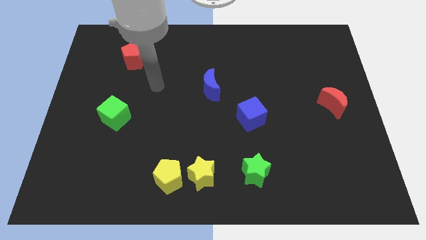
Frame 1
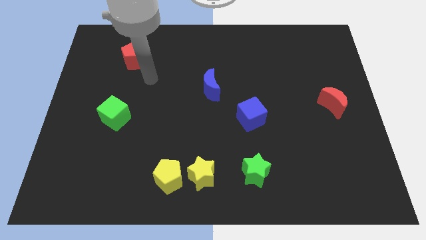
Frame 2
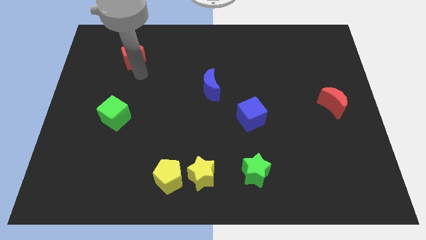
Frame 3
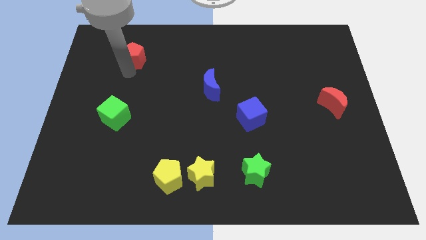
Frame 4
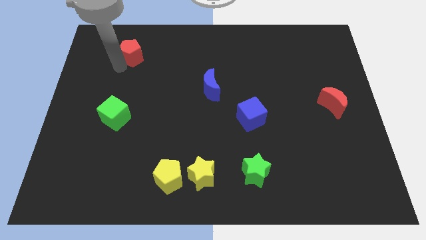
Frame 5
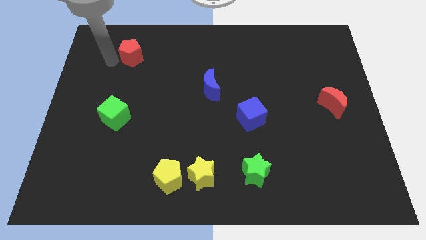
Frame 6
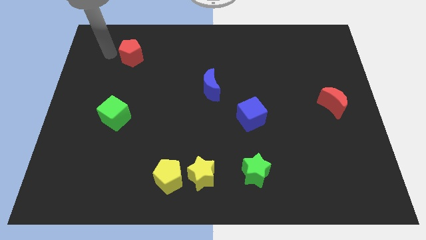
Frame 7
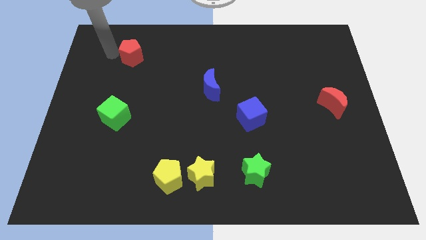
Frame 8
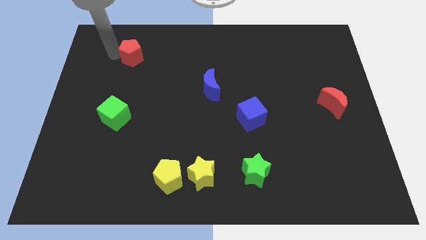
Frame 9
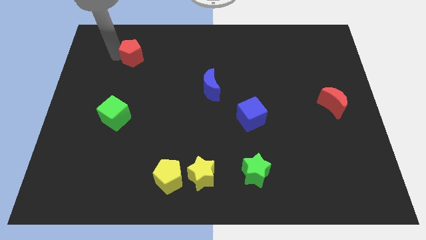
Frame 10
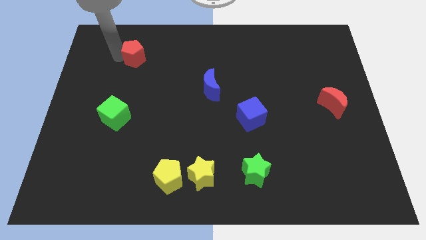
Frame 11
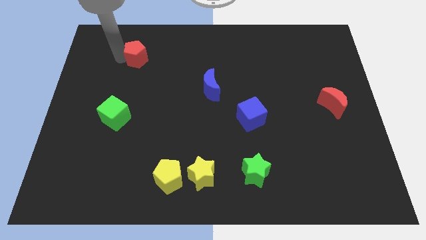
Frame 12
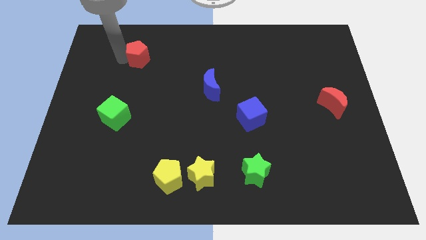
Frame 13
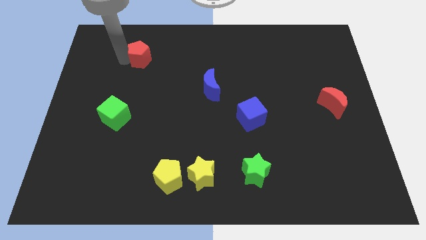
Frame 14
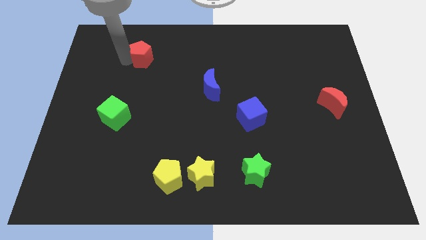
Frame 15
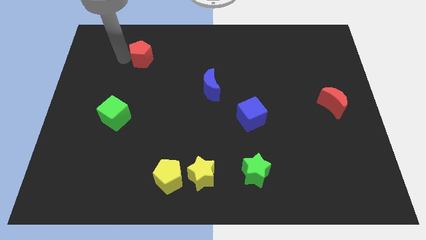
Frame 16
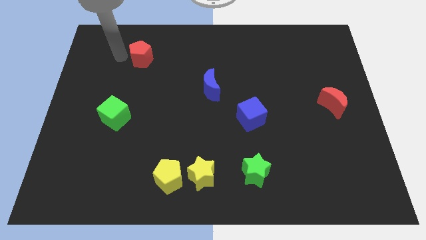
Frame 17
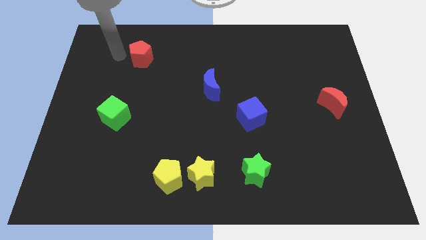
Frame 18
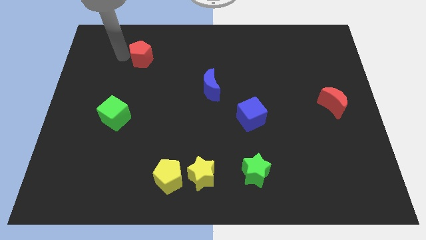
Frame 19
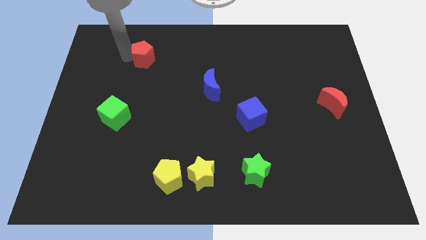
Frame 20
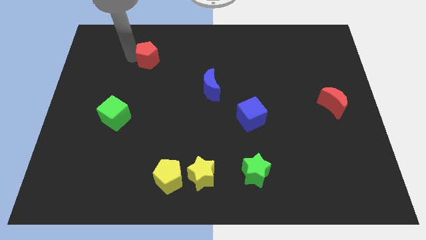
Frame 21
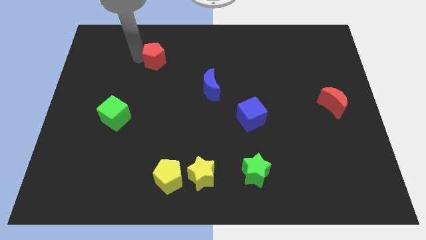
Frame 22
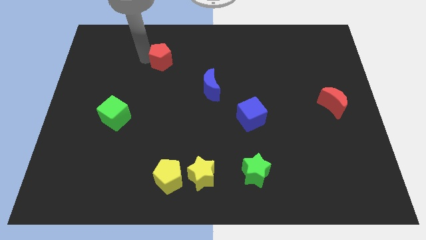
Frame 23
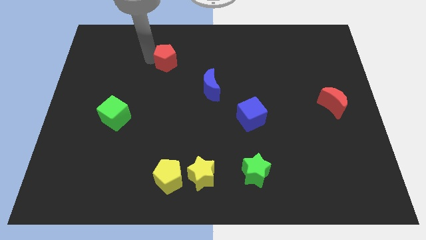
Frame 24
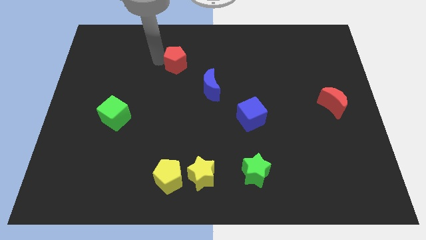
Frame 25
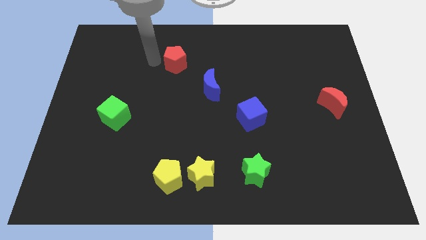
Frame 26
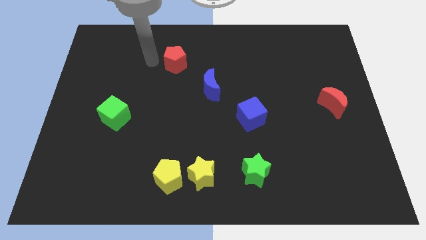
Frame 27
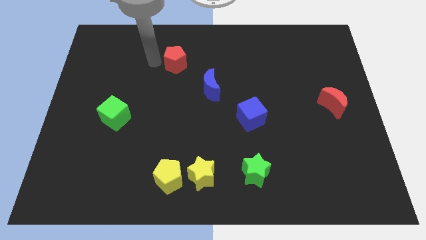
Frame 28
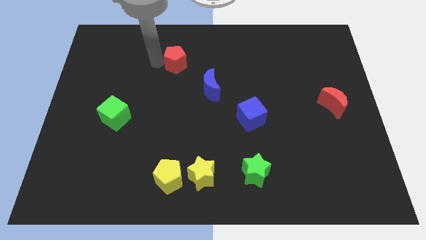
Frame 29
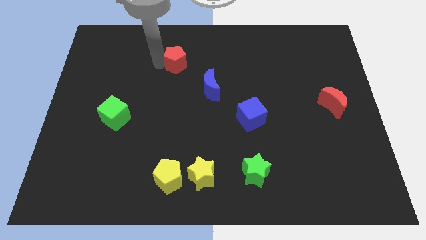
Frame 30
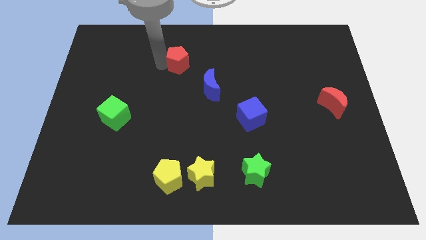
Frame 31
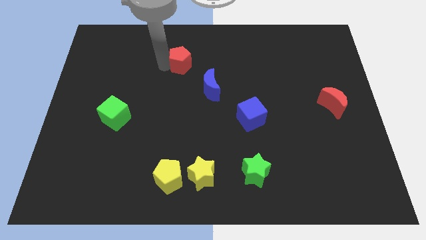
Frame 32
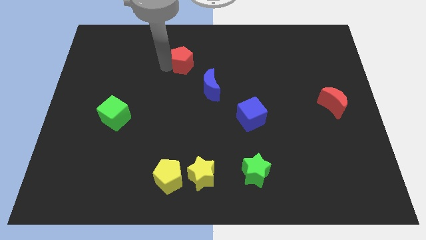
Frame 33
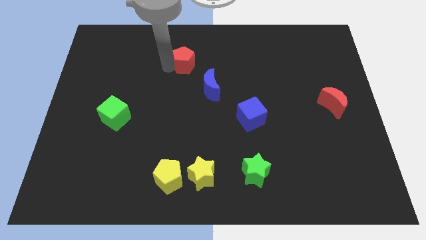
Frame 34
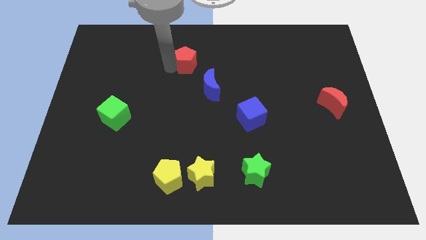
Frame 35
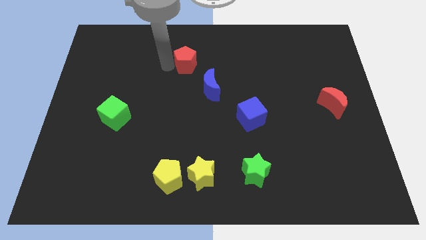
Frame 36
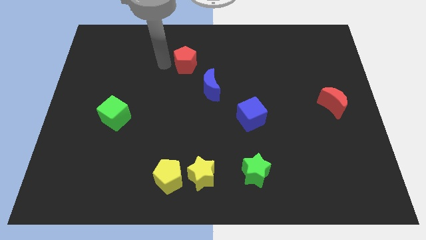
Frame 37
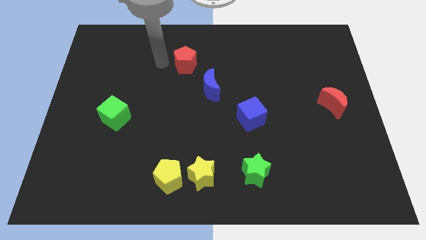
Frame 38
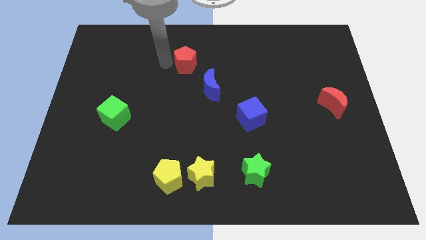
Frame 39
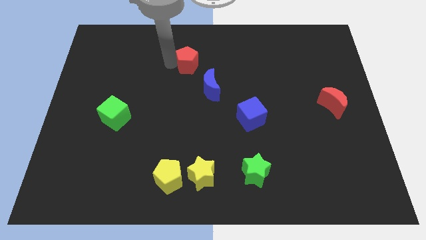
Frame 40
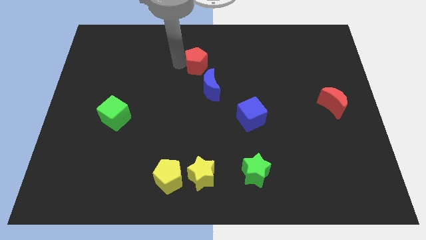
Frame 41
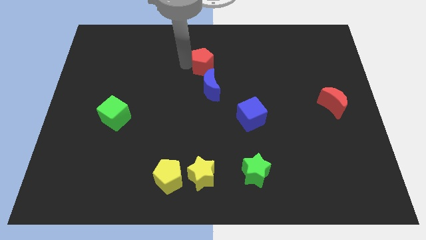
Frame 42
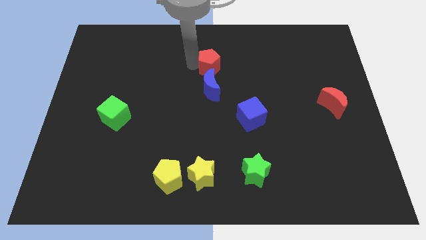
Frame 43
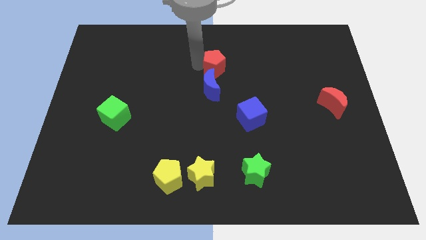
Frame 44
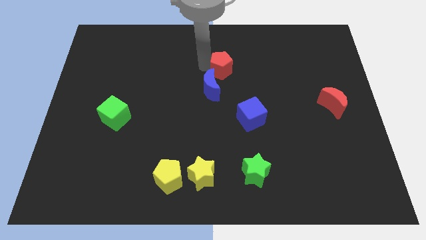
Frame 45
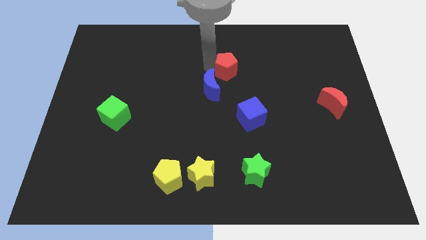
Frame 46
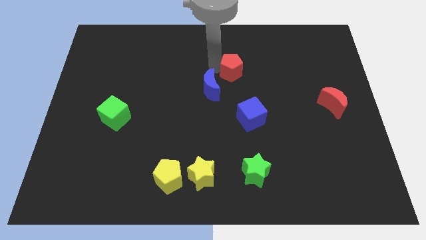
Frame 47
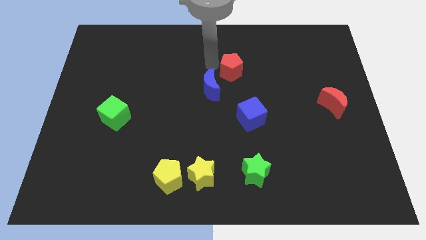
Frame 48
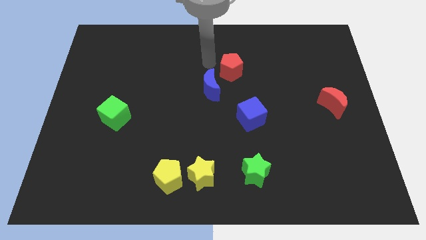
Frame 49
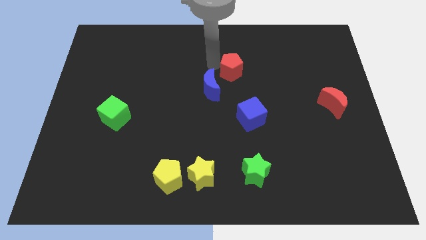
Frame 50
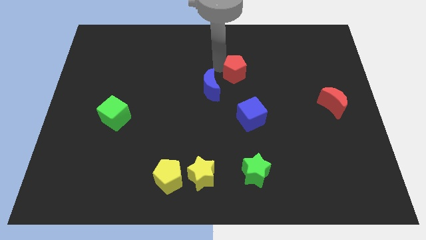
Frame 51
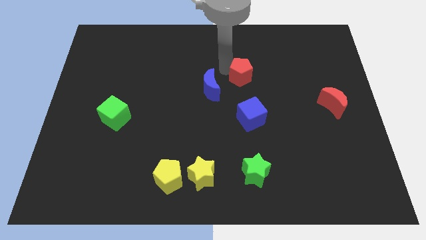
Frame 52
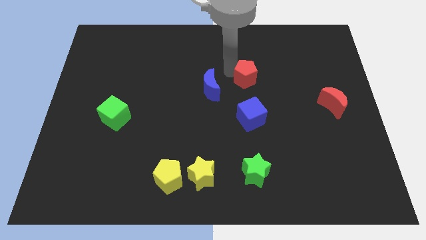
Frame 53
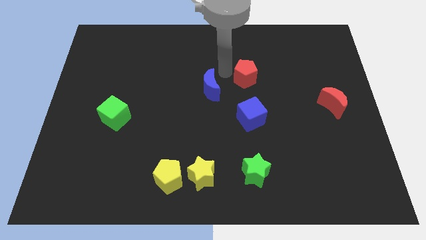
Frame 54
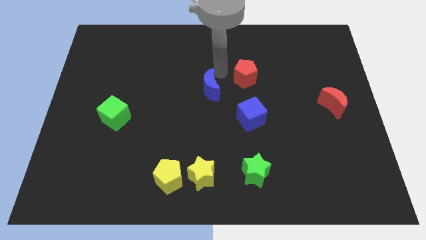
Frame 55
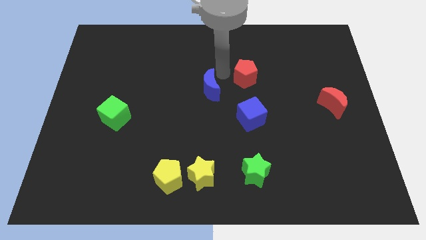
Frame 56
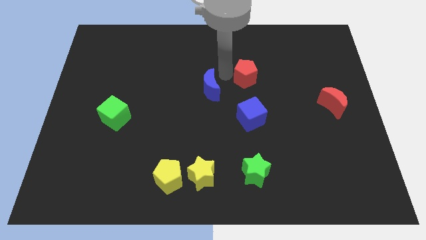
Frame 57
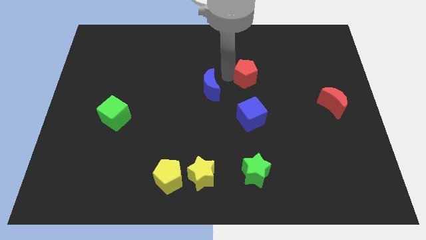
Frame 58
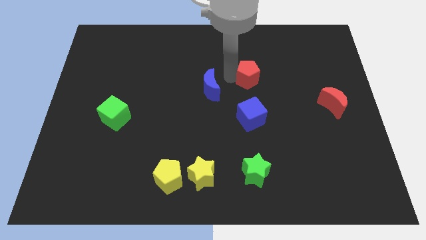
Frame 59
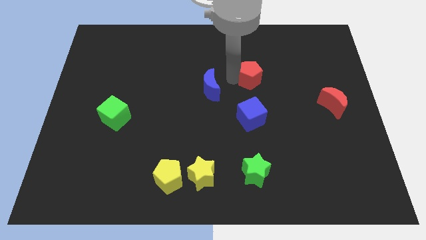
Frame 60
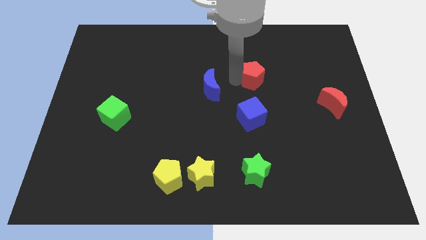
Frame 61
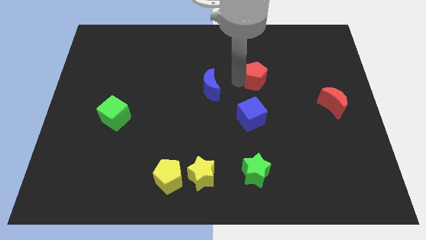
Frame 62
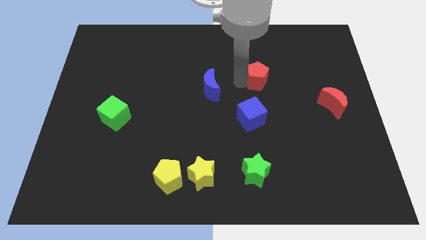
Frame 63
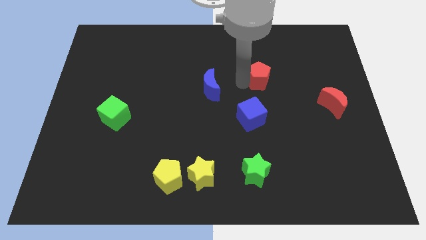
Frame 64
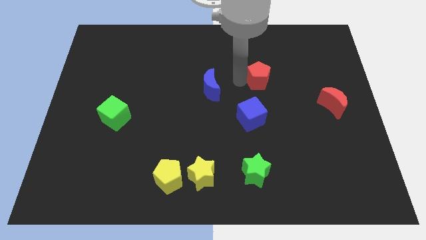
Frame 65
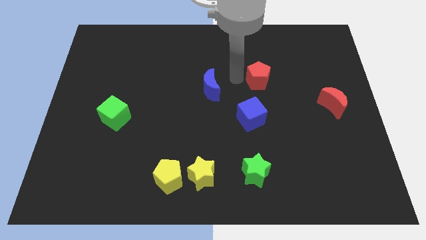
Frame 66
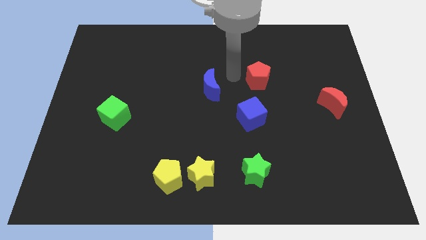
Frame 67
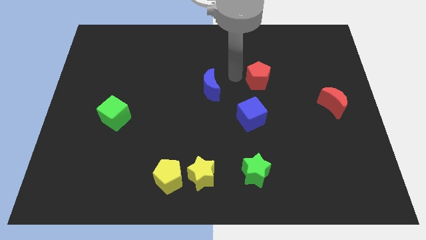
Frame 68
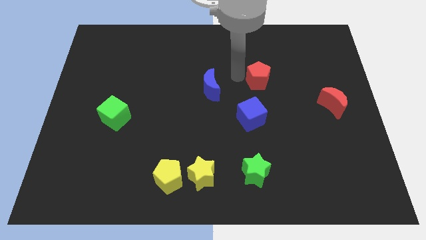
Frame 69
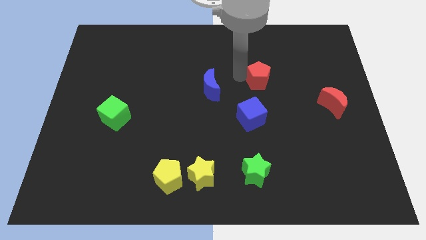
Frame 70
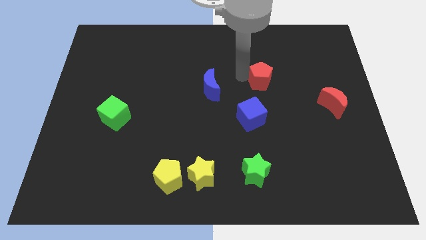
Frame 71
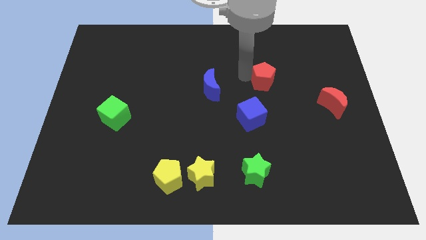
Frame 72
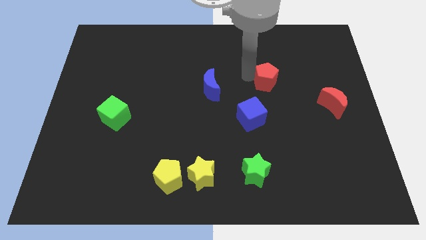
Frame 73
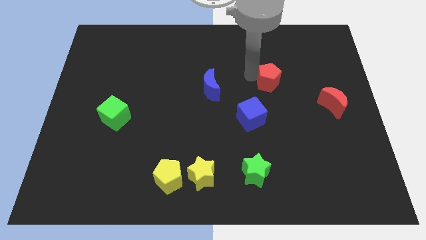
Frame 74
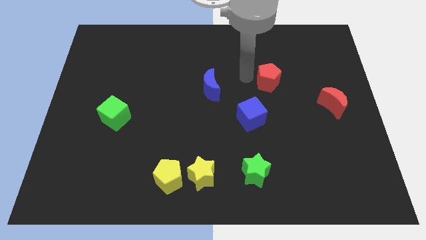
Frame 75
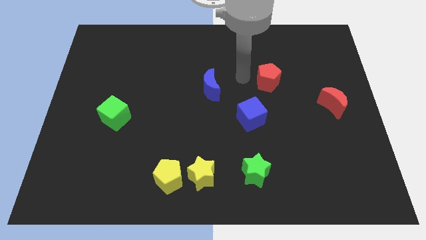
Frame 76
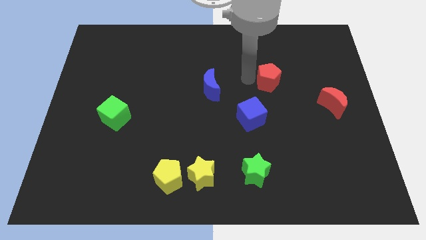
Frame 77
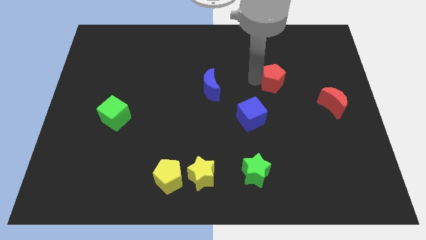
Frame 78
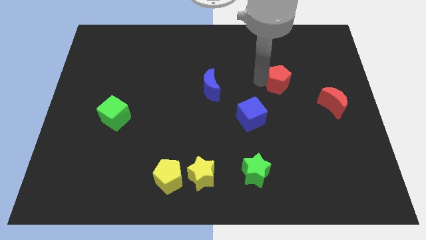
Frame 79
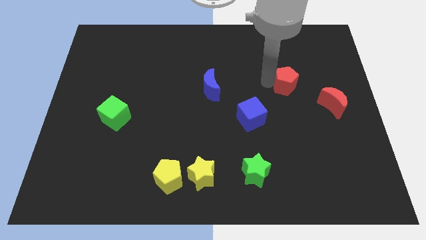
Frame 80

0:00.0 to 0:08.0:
slide the red pentagon to the top left side of the red moon
